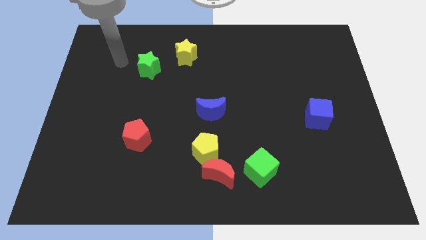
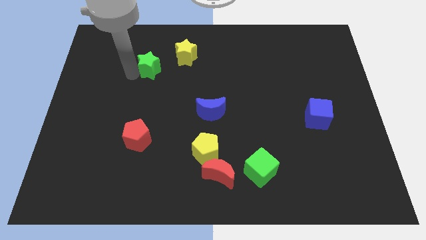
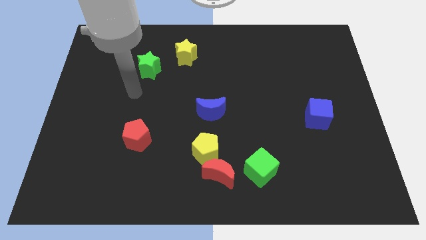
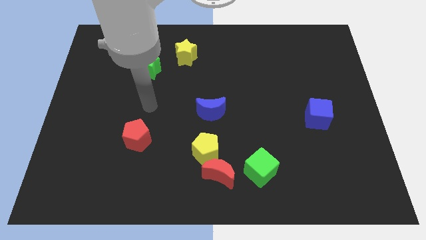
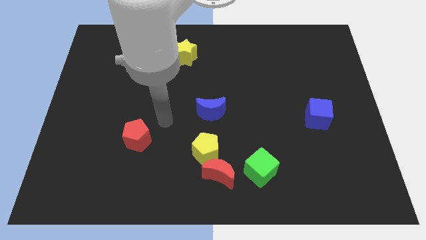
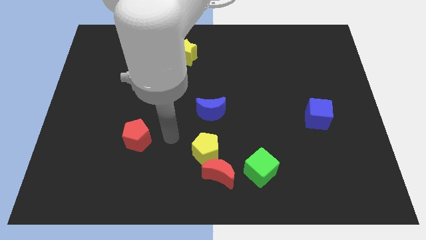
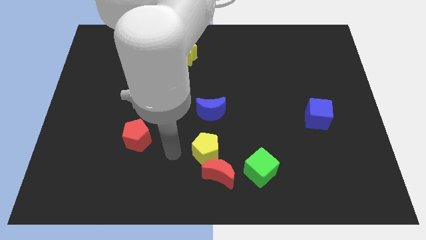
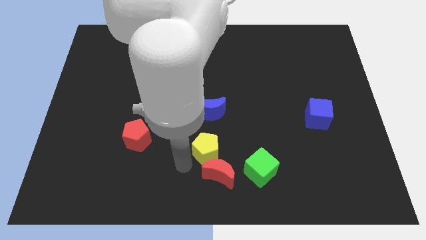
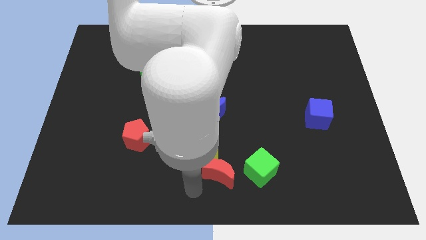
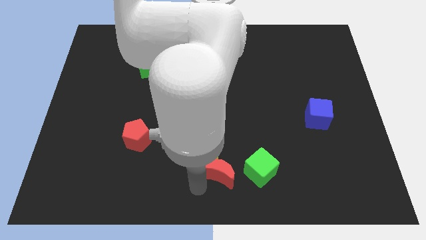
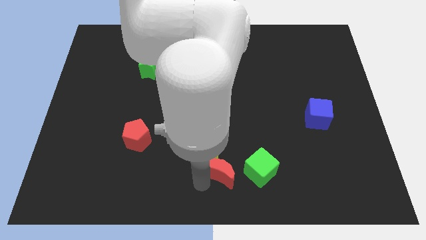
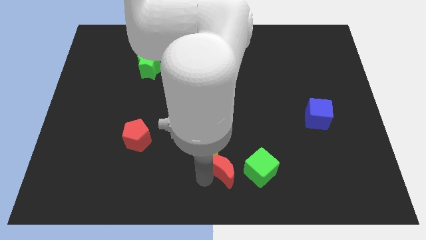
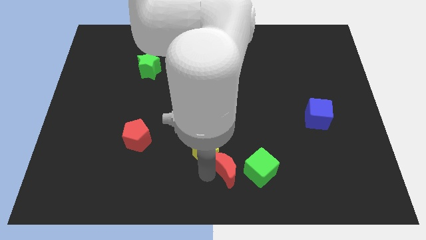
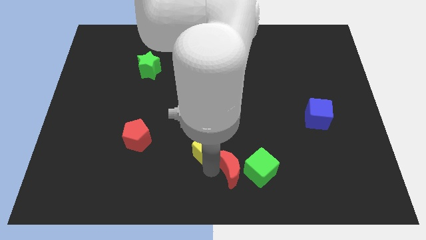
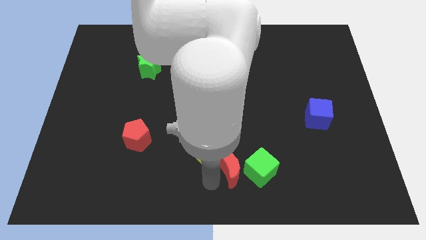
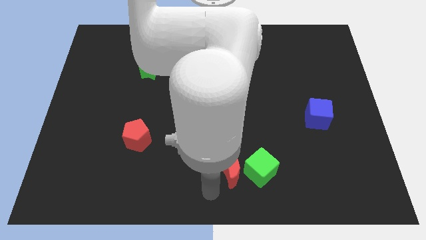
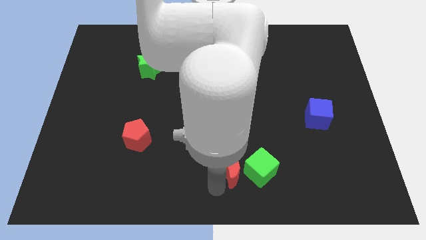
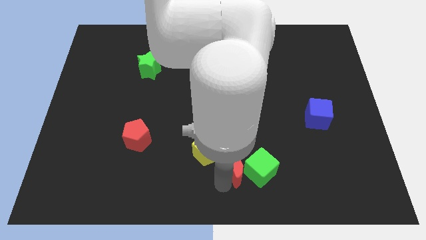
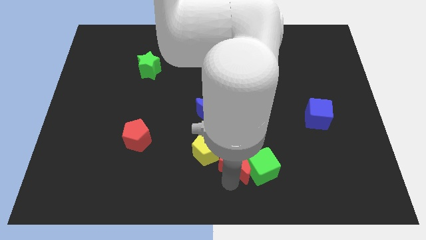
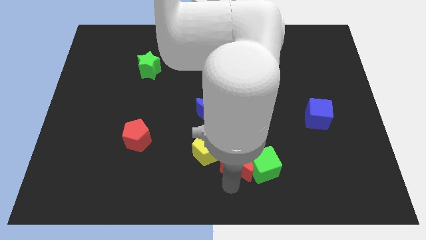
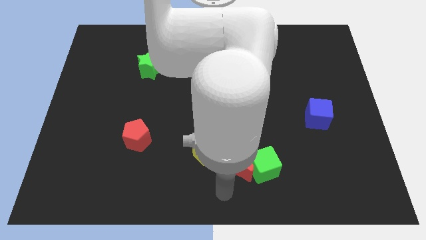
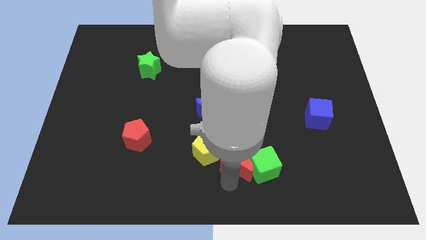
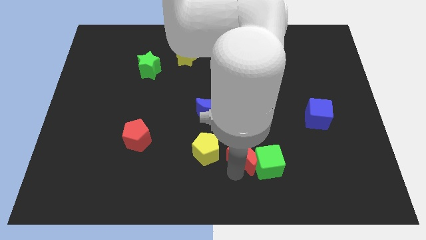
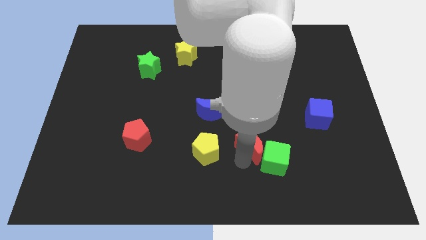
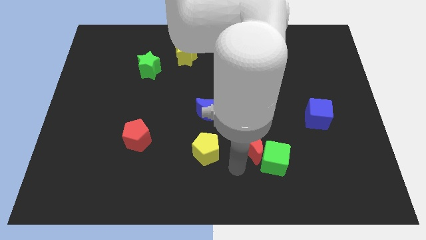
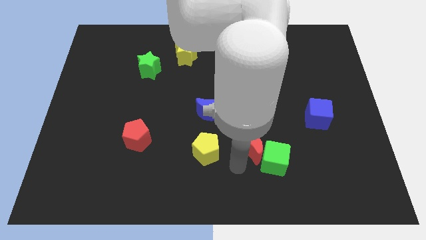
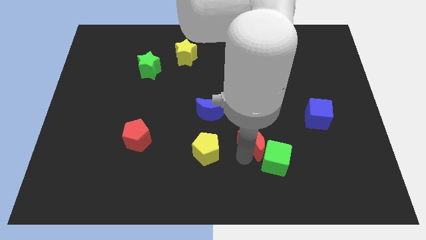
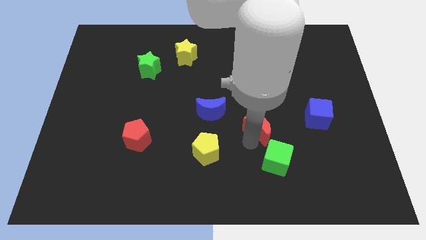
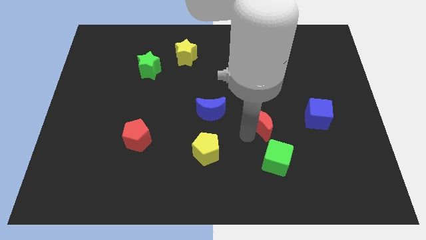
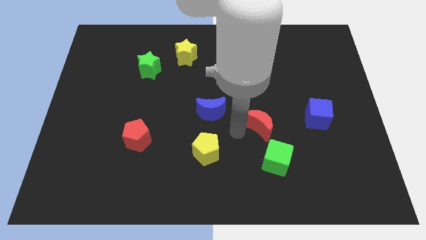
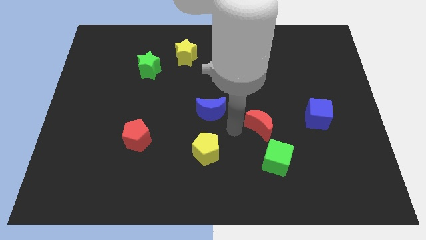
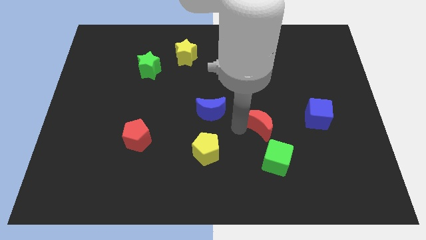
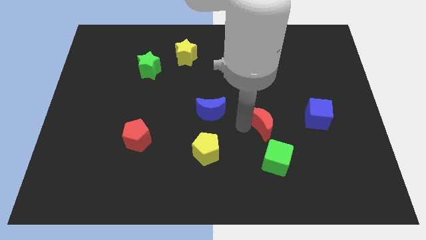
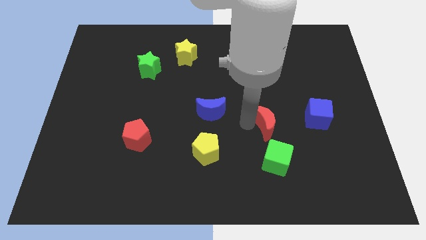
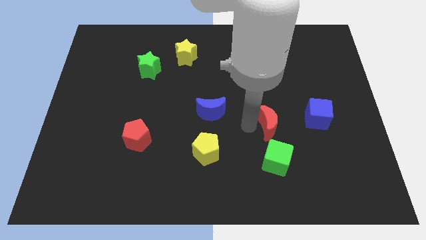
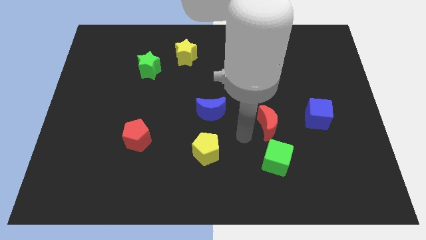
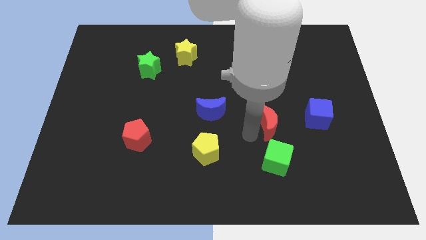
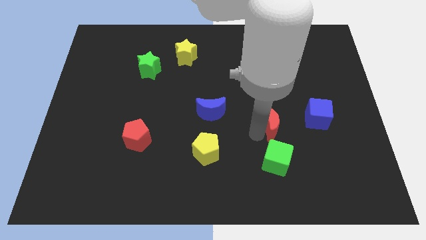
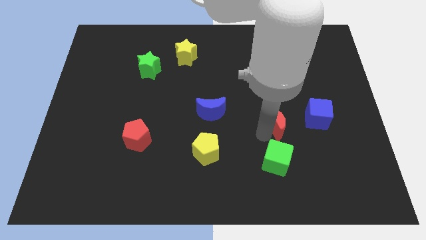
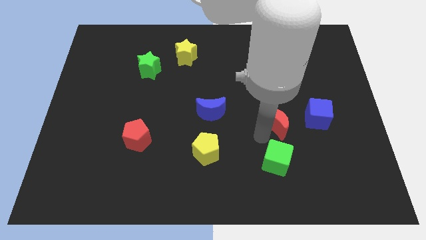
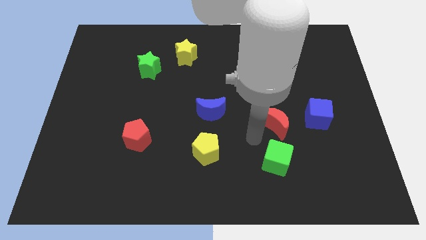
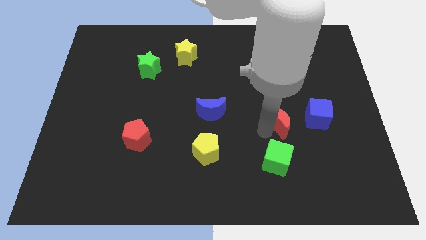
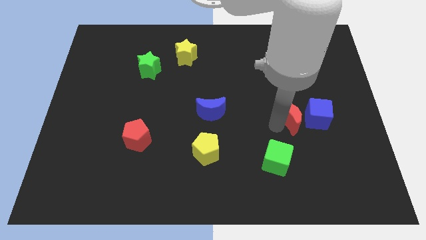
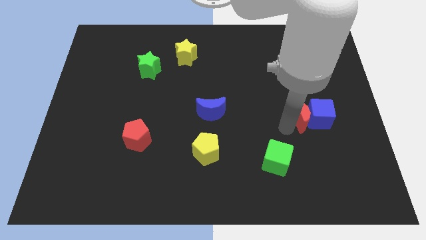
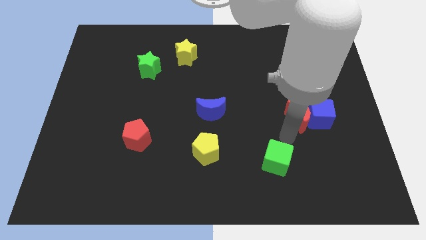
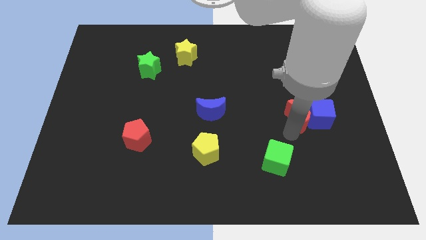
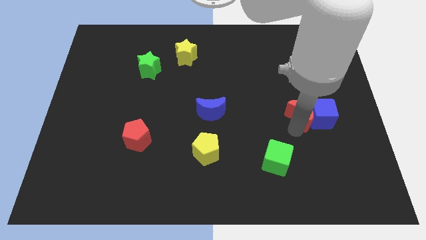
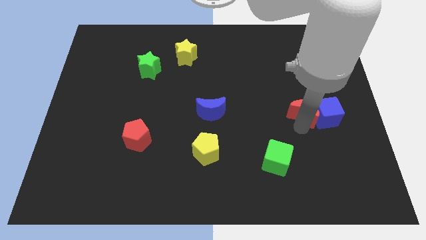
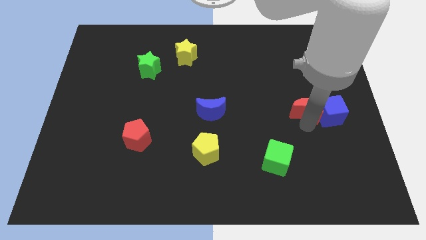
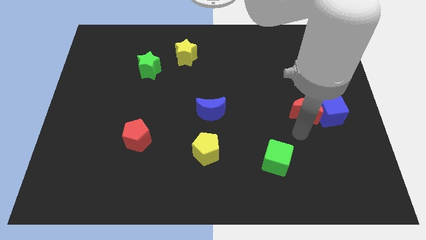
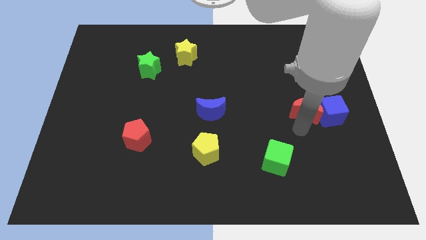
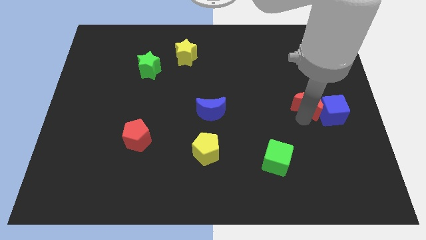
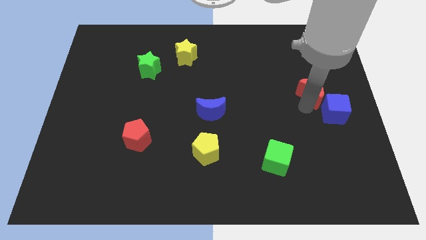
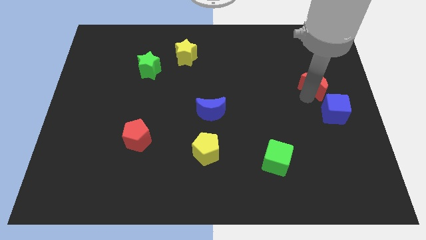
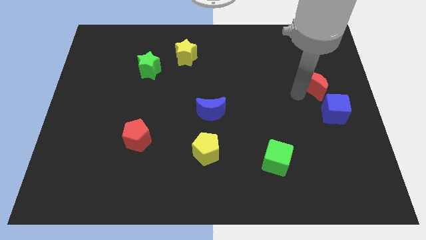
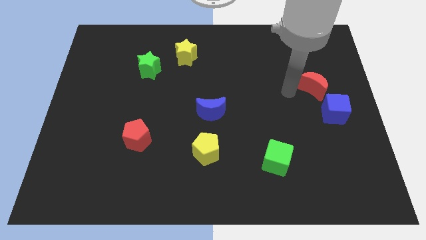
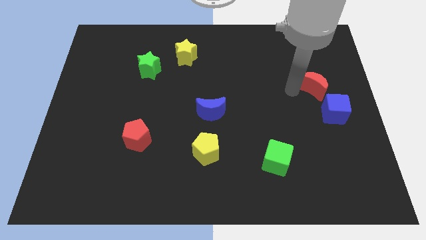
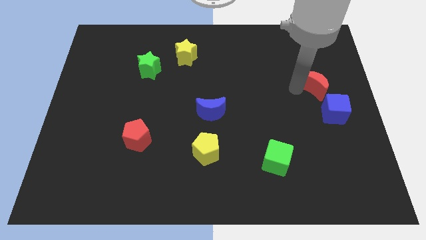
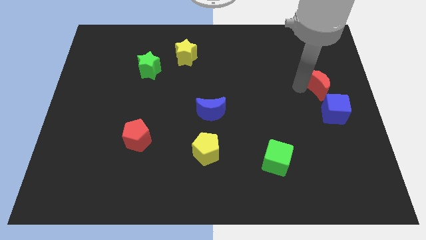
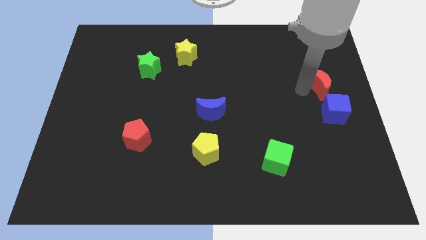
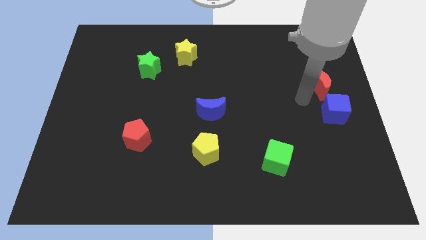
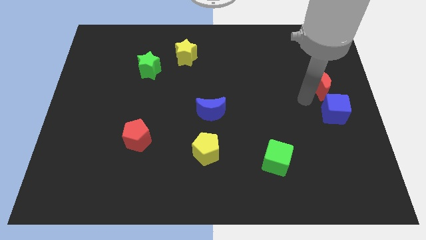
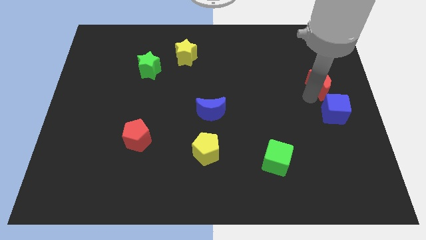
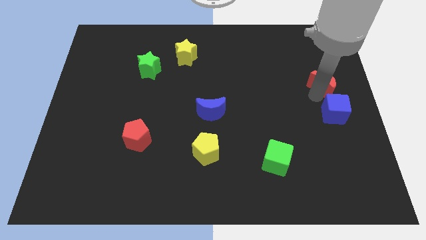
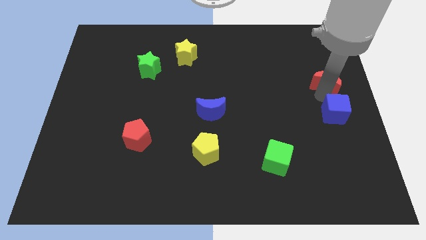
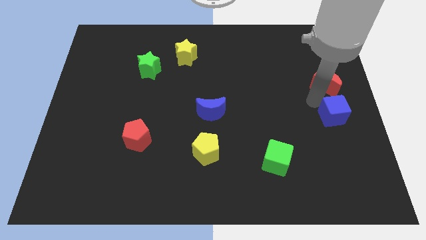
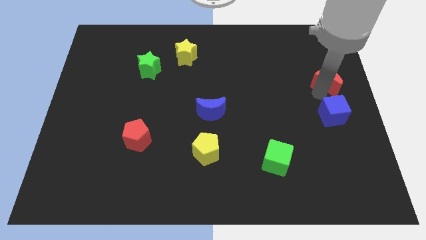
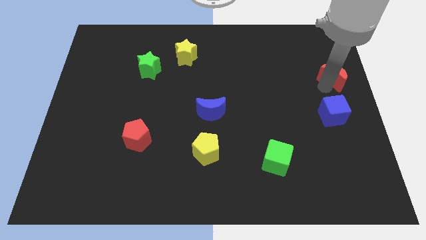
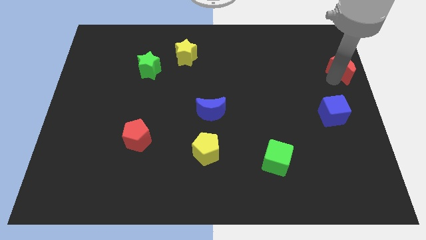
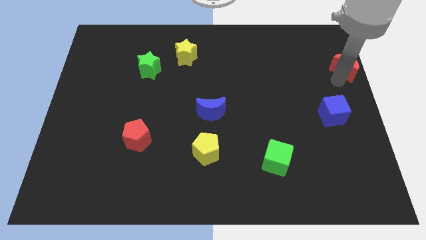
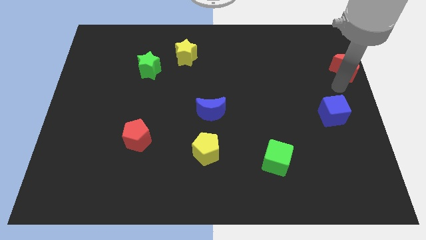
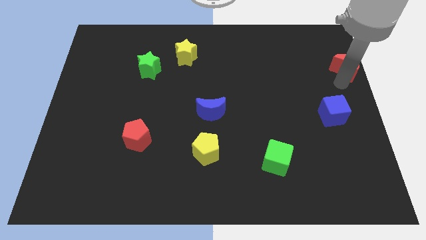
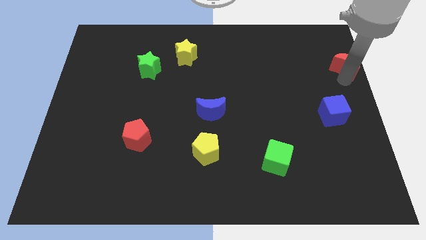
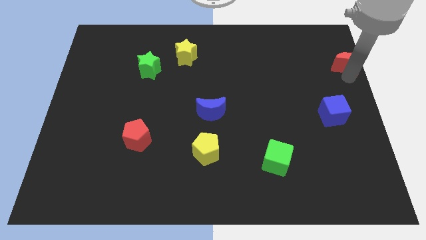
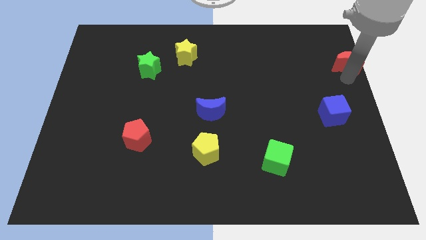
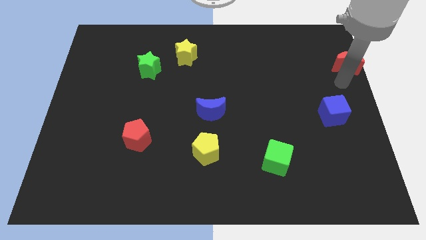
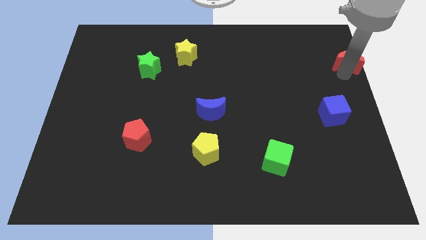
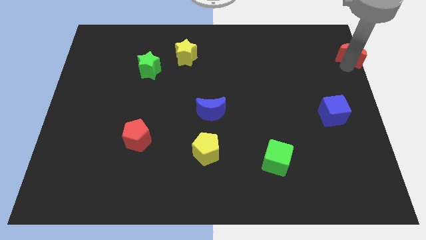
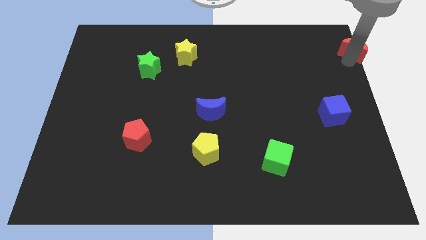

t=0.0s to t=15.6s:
push the red moon to the top right of the board
